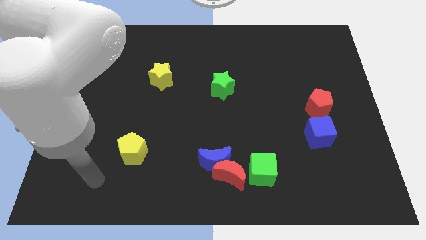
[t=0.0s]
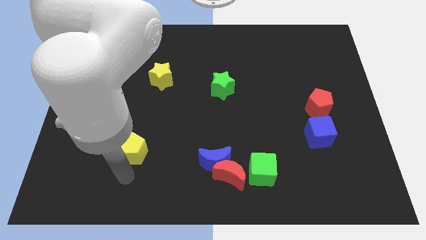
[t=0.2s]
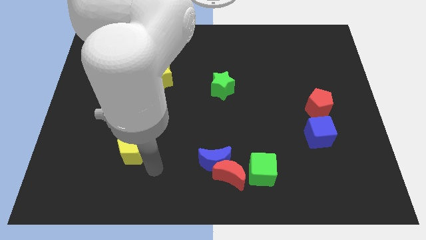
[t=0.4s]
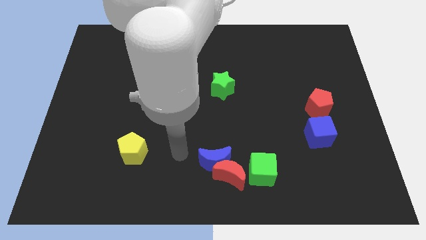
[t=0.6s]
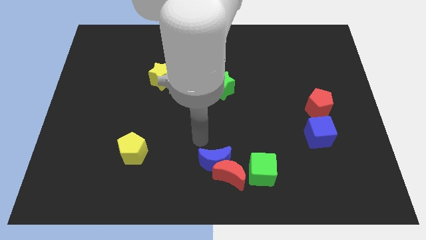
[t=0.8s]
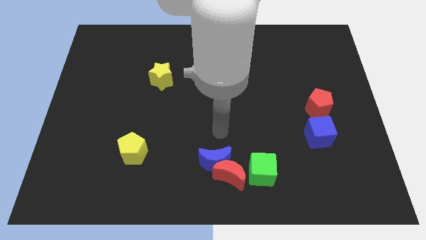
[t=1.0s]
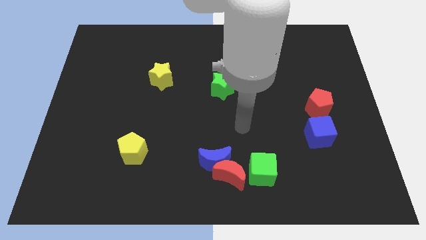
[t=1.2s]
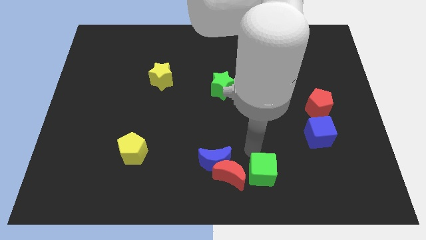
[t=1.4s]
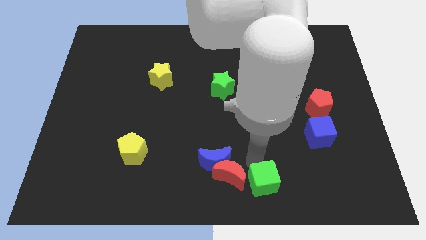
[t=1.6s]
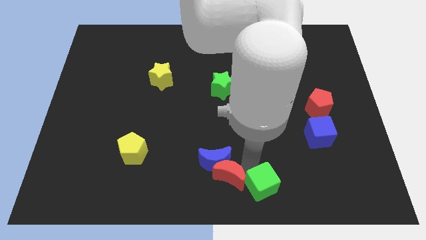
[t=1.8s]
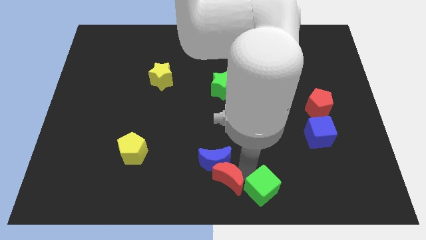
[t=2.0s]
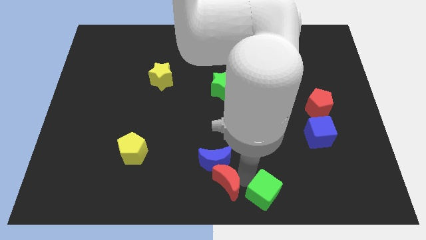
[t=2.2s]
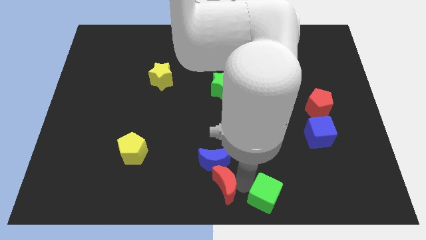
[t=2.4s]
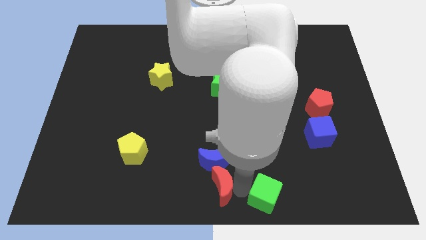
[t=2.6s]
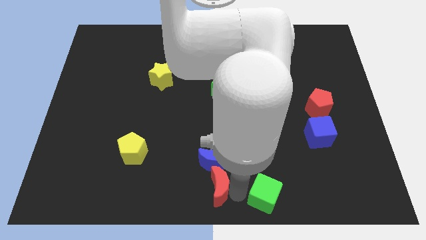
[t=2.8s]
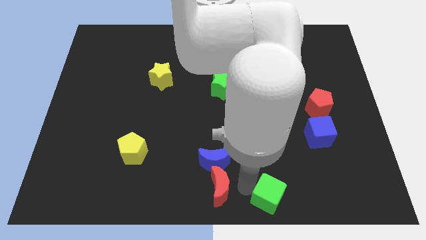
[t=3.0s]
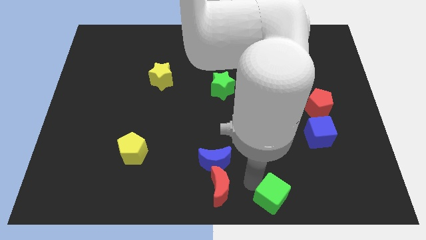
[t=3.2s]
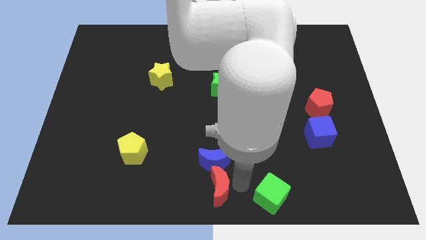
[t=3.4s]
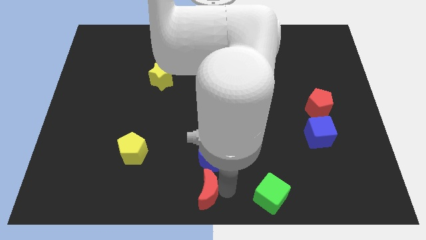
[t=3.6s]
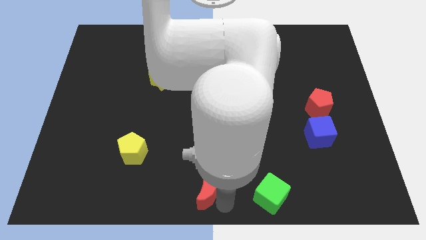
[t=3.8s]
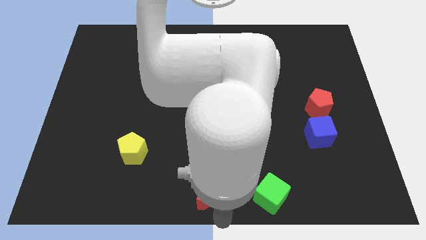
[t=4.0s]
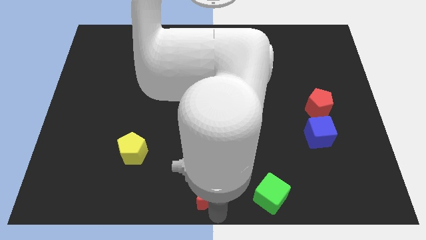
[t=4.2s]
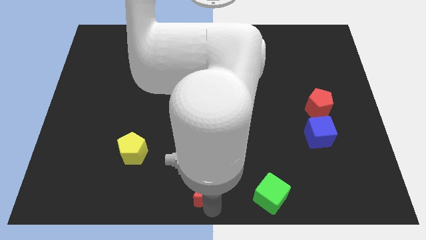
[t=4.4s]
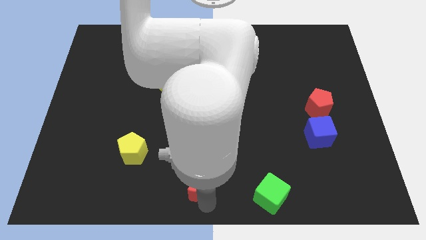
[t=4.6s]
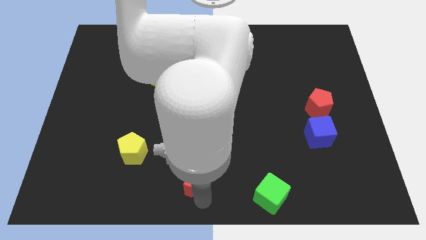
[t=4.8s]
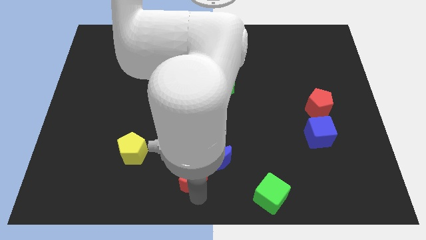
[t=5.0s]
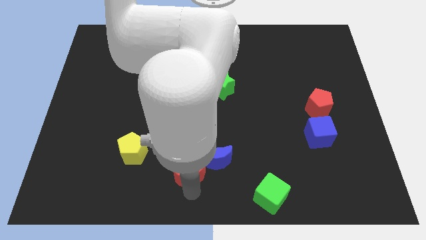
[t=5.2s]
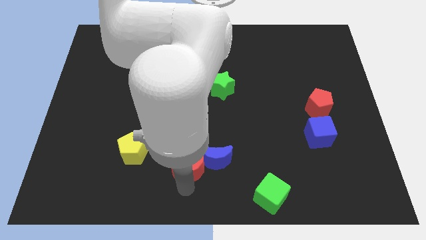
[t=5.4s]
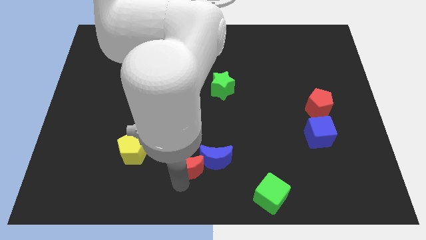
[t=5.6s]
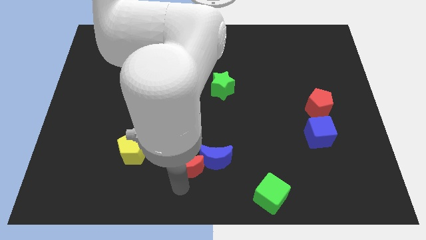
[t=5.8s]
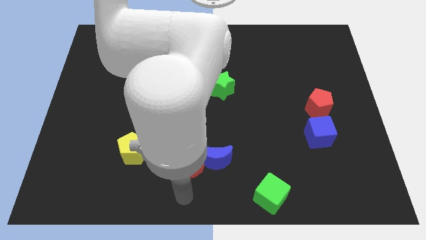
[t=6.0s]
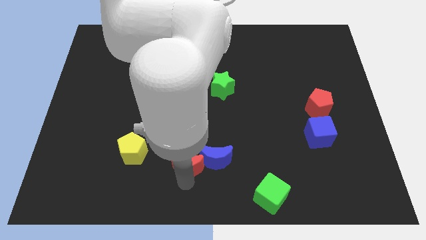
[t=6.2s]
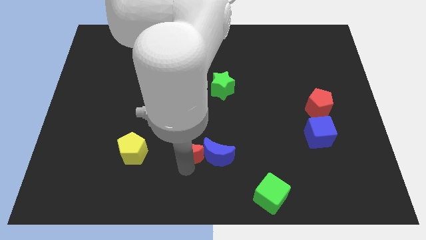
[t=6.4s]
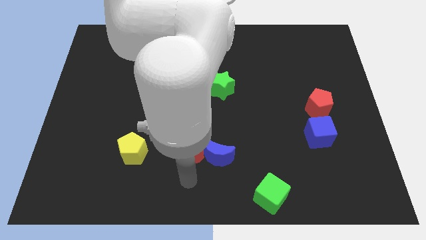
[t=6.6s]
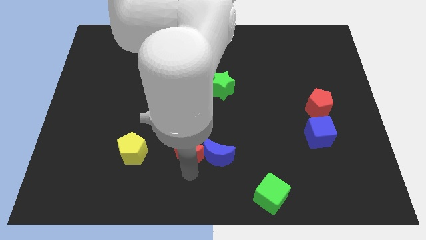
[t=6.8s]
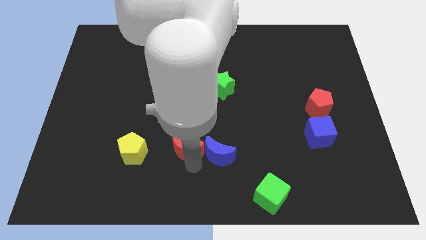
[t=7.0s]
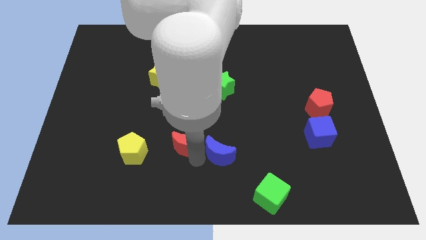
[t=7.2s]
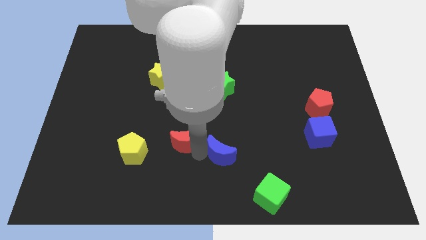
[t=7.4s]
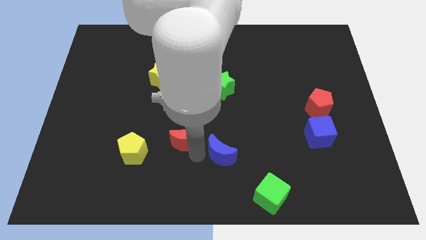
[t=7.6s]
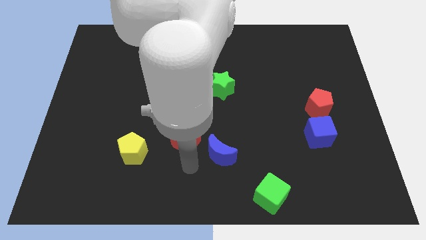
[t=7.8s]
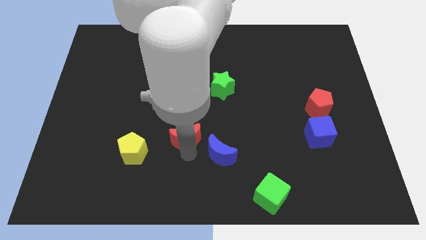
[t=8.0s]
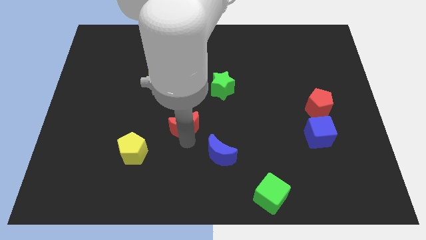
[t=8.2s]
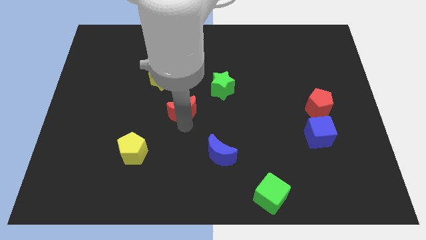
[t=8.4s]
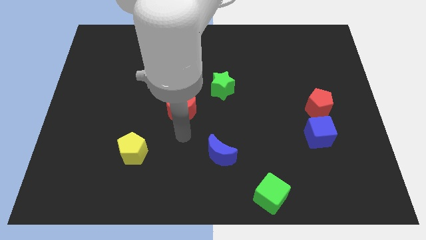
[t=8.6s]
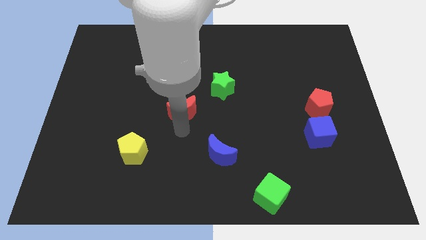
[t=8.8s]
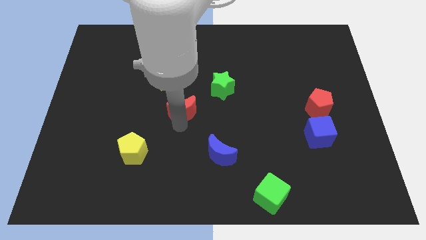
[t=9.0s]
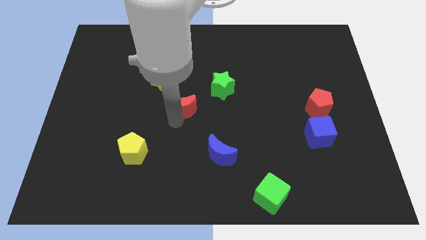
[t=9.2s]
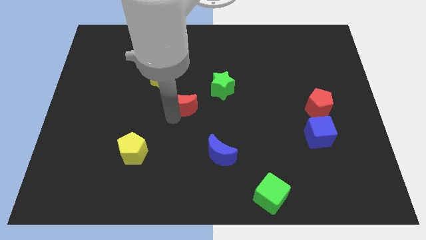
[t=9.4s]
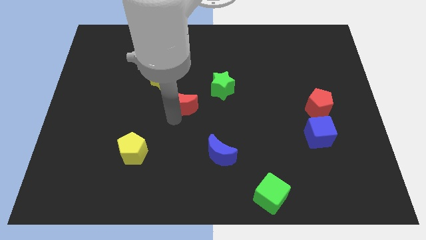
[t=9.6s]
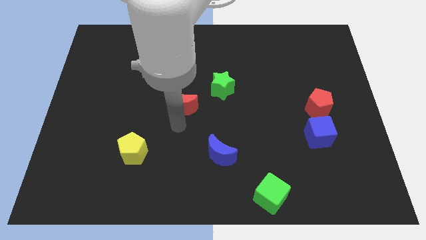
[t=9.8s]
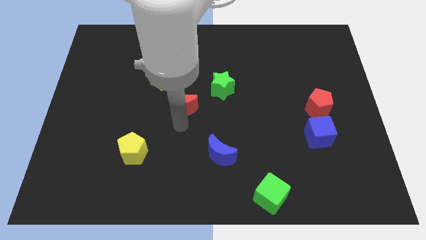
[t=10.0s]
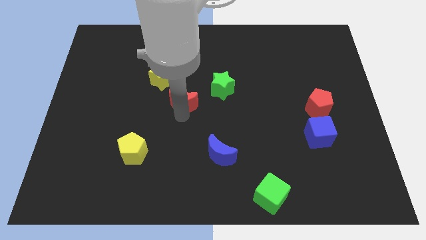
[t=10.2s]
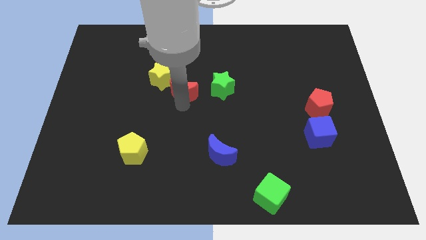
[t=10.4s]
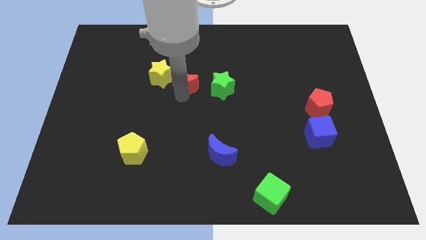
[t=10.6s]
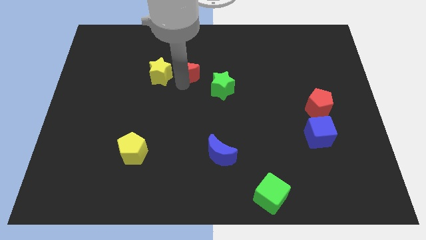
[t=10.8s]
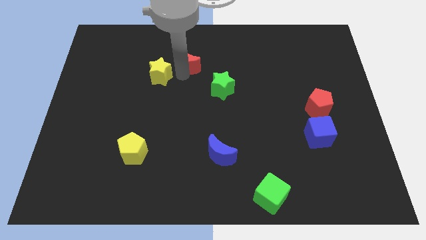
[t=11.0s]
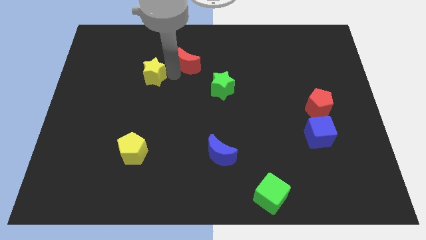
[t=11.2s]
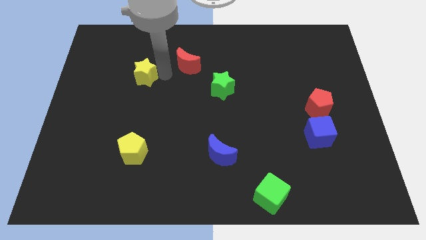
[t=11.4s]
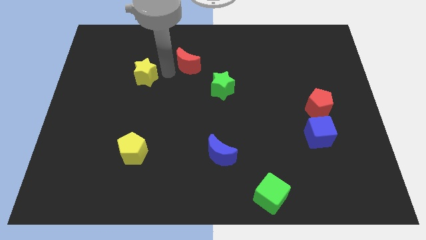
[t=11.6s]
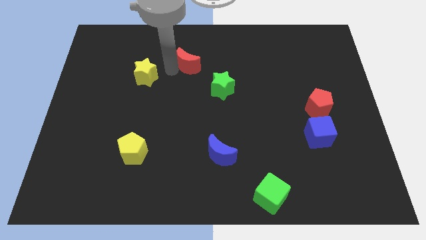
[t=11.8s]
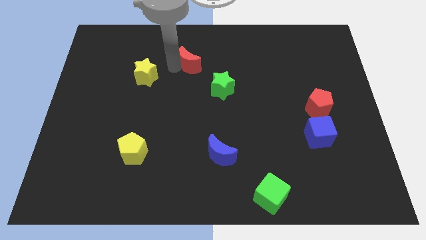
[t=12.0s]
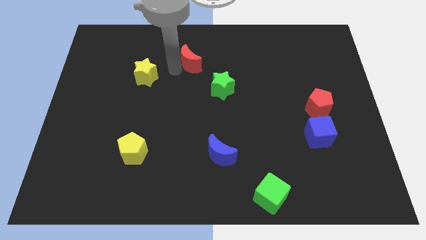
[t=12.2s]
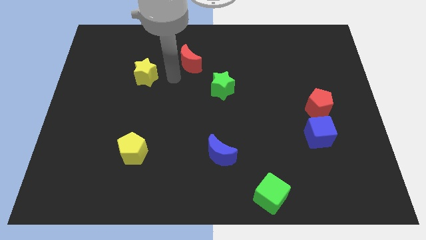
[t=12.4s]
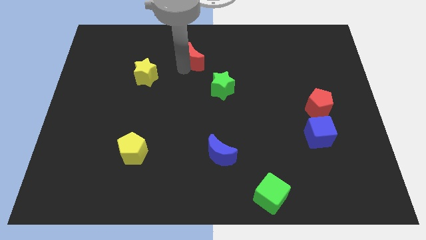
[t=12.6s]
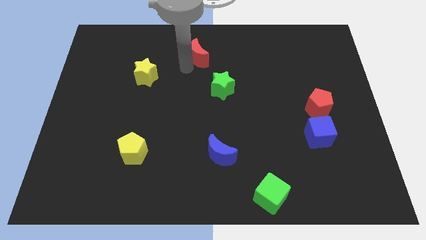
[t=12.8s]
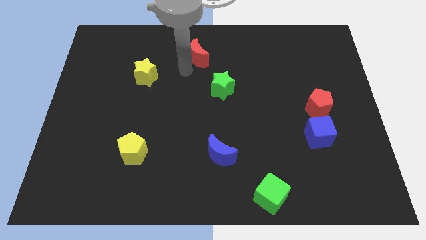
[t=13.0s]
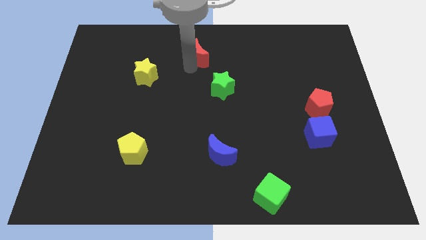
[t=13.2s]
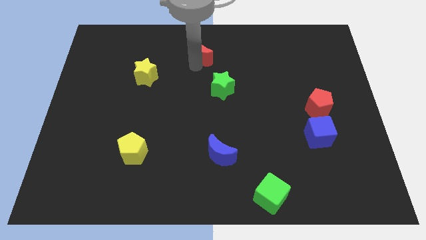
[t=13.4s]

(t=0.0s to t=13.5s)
slide the red moon to the top side

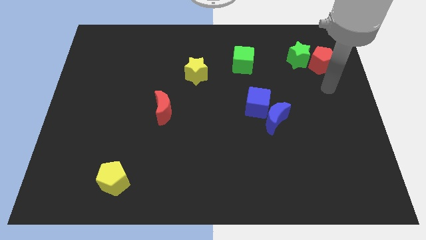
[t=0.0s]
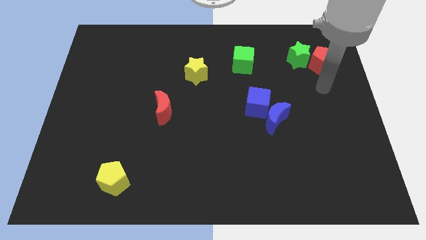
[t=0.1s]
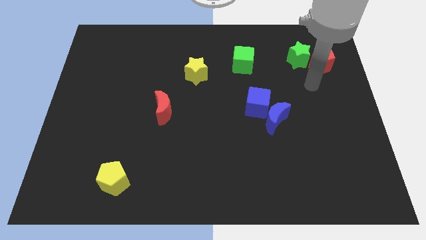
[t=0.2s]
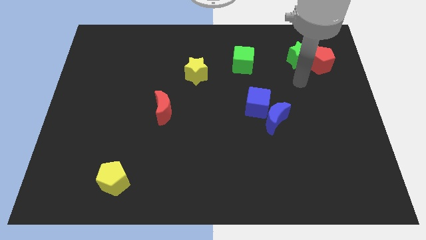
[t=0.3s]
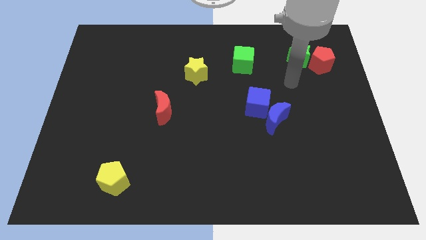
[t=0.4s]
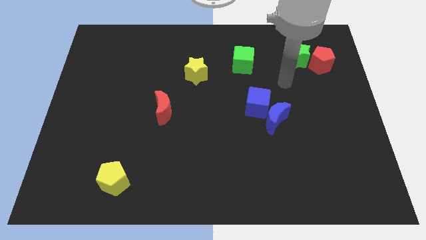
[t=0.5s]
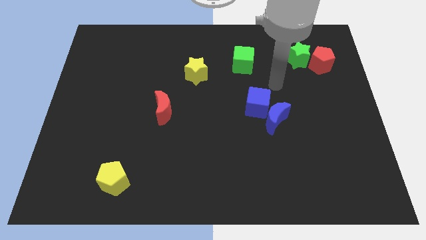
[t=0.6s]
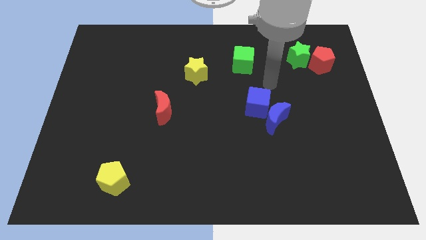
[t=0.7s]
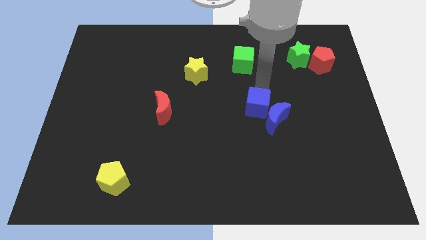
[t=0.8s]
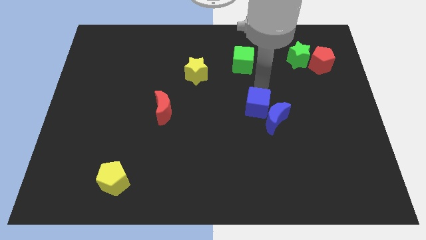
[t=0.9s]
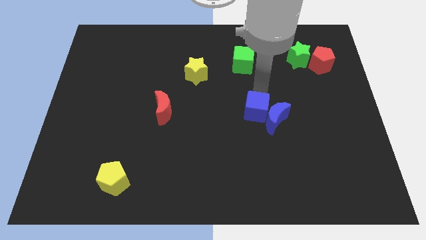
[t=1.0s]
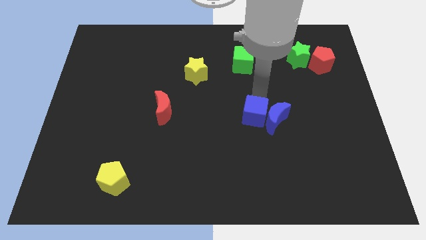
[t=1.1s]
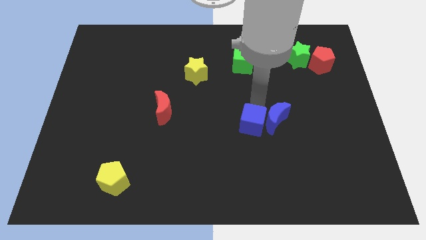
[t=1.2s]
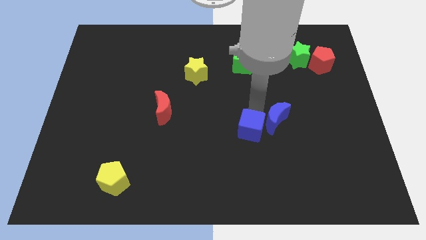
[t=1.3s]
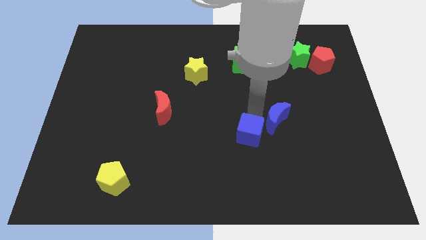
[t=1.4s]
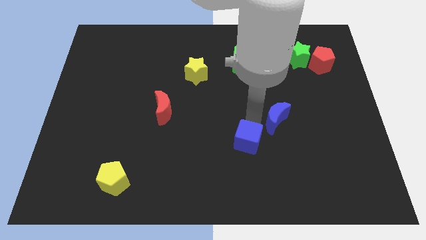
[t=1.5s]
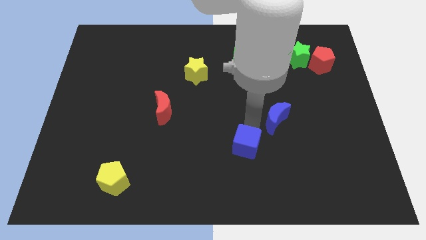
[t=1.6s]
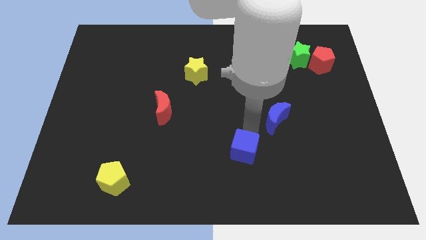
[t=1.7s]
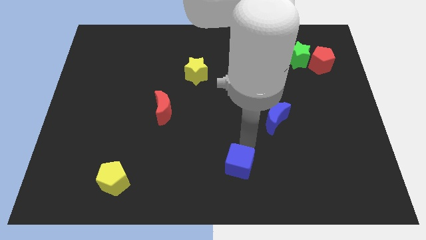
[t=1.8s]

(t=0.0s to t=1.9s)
put the blue cube to the bottom
